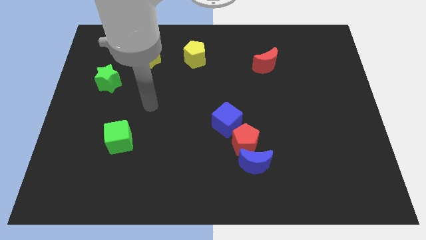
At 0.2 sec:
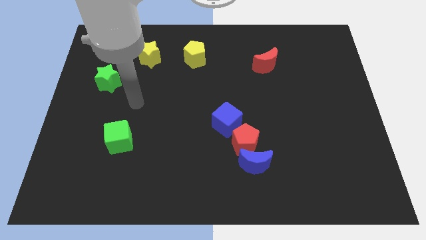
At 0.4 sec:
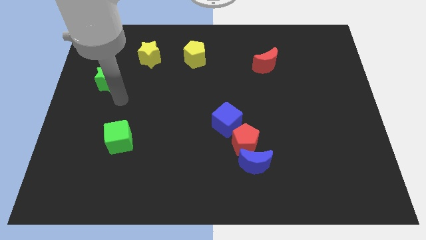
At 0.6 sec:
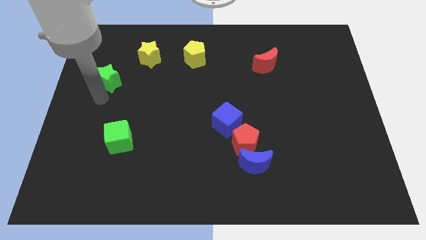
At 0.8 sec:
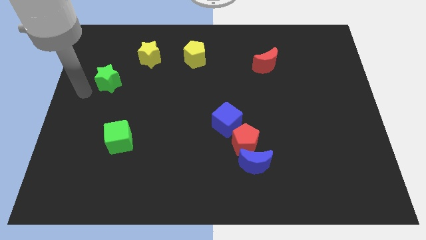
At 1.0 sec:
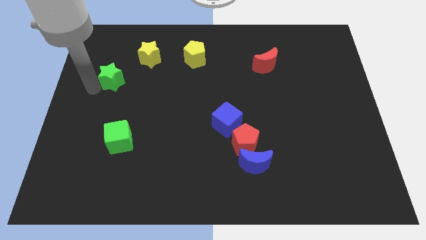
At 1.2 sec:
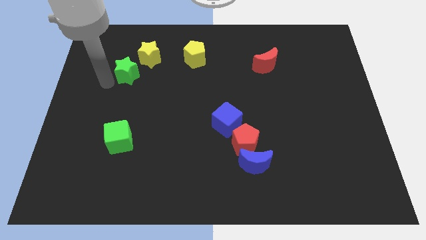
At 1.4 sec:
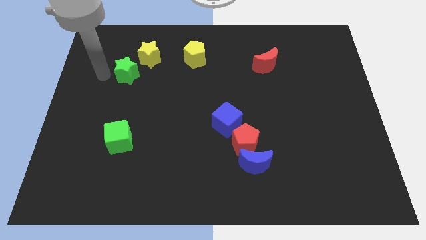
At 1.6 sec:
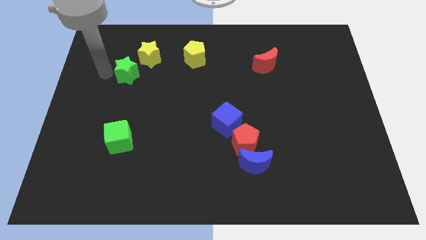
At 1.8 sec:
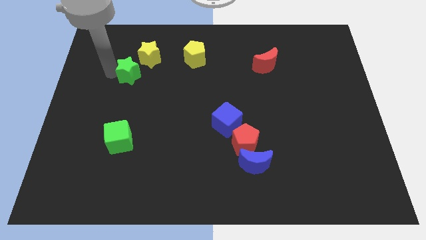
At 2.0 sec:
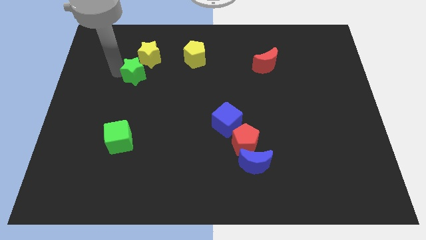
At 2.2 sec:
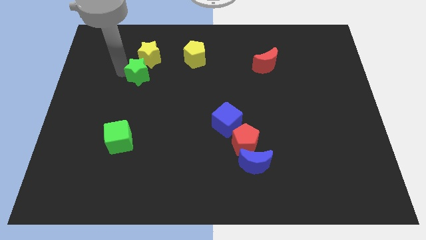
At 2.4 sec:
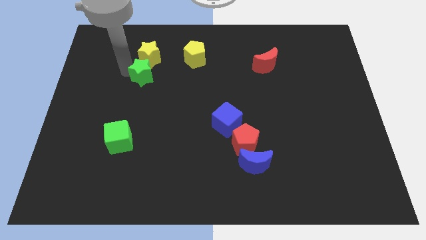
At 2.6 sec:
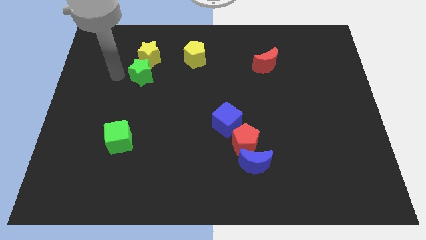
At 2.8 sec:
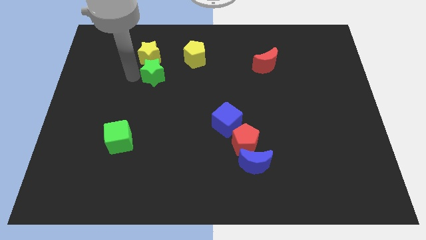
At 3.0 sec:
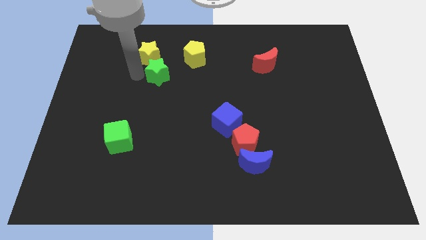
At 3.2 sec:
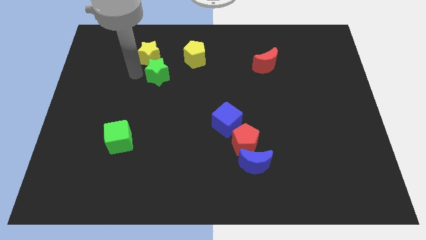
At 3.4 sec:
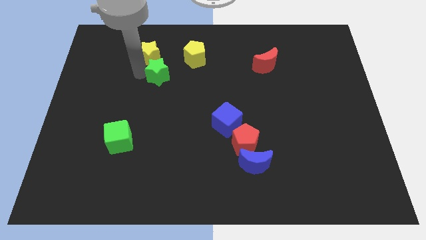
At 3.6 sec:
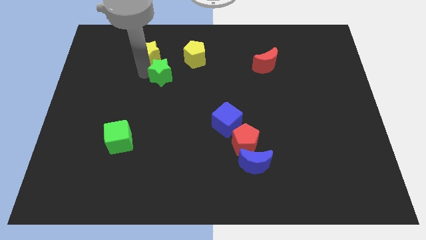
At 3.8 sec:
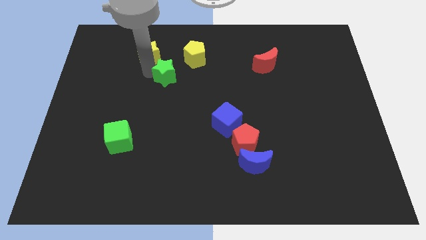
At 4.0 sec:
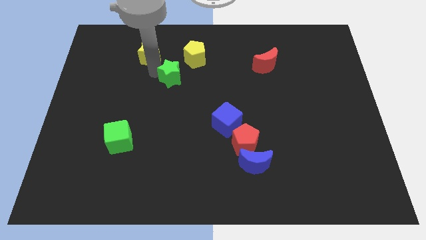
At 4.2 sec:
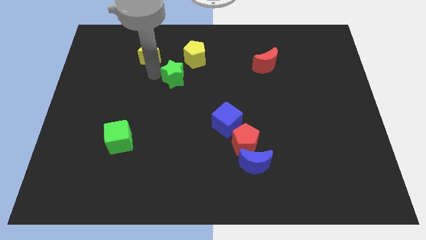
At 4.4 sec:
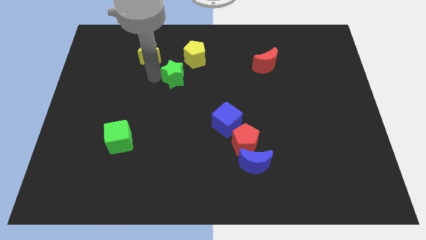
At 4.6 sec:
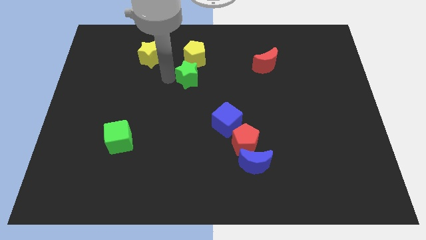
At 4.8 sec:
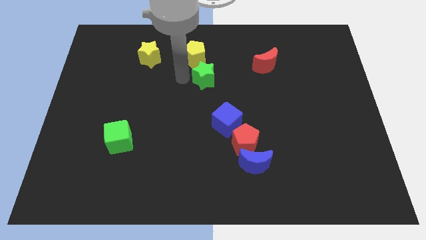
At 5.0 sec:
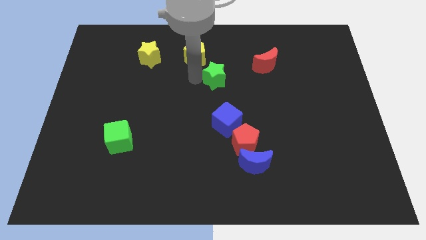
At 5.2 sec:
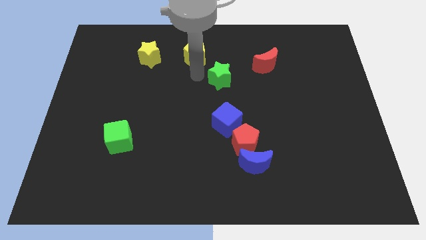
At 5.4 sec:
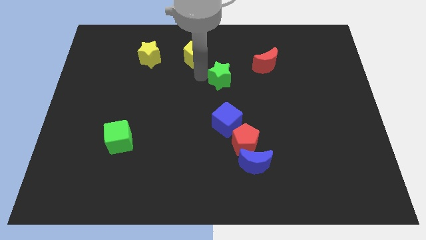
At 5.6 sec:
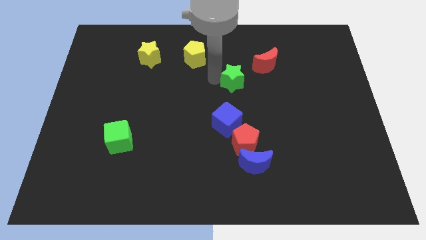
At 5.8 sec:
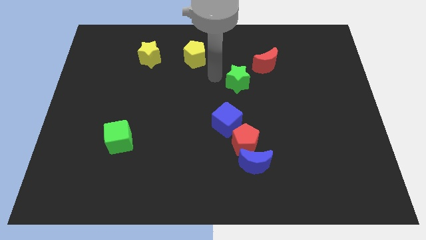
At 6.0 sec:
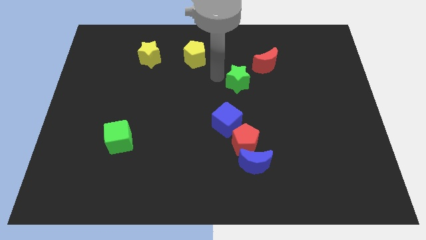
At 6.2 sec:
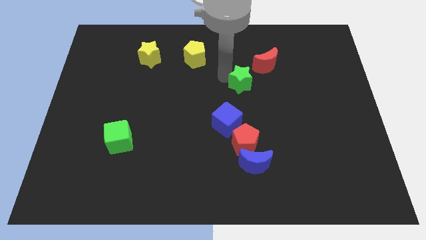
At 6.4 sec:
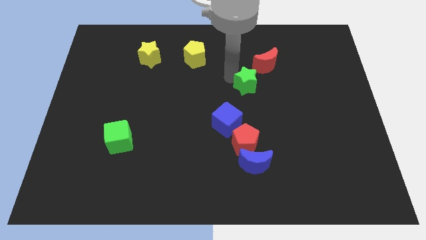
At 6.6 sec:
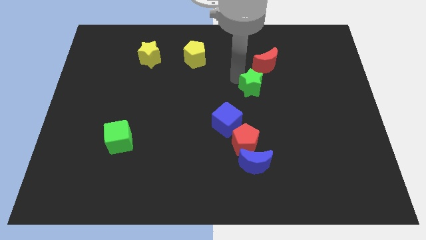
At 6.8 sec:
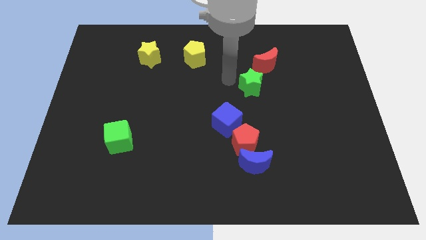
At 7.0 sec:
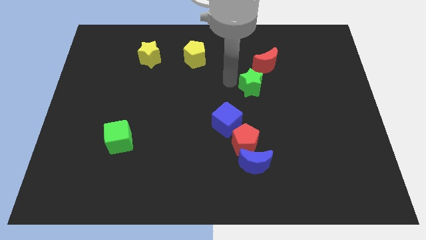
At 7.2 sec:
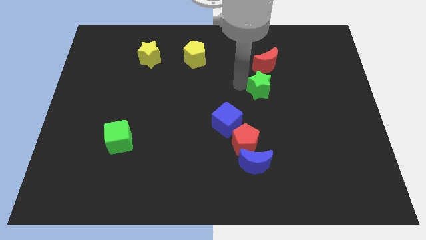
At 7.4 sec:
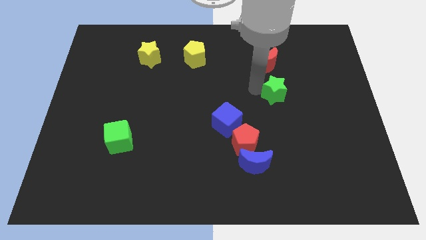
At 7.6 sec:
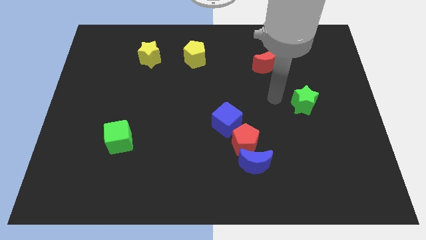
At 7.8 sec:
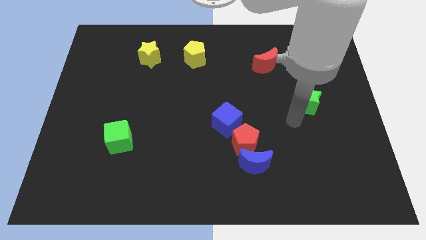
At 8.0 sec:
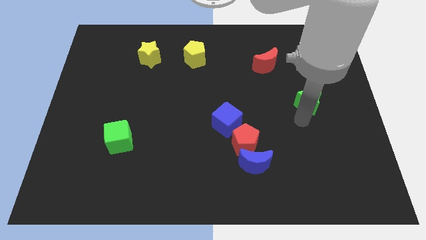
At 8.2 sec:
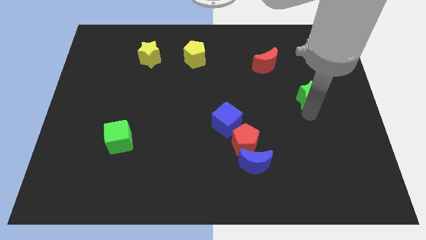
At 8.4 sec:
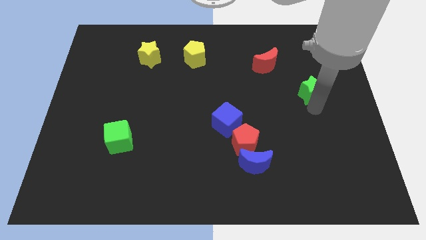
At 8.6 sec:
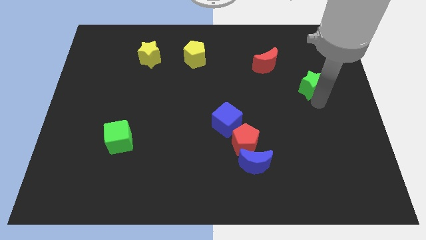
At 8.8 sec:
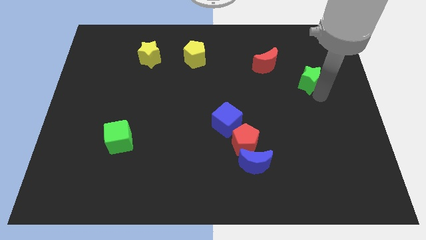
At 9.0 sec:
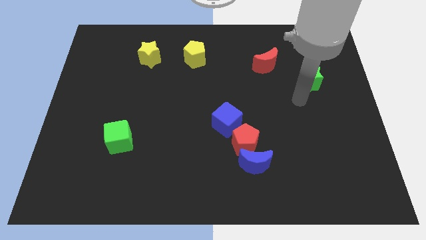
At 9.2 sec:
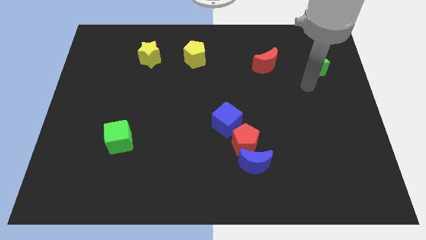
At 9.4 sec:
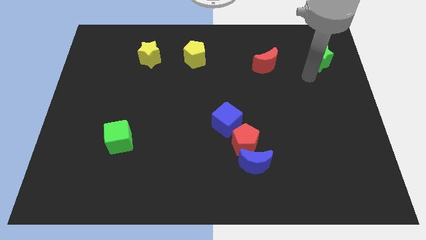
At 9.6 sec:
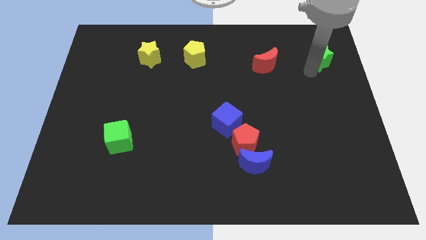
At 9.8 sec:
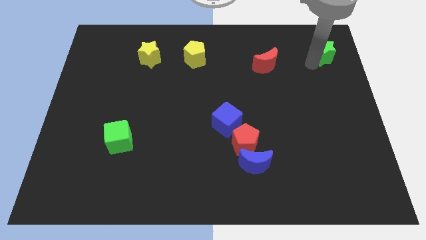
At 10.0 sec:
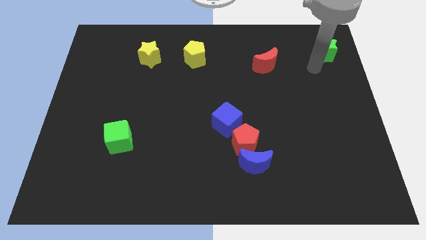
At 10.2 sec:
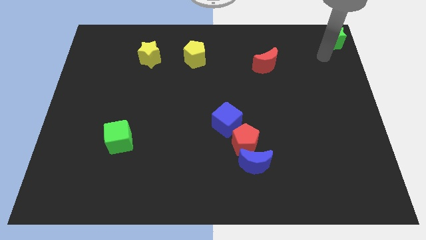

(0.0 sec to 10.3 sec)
push the green star to the top right of the board

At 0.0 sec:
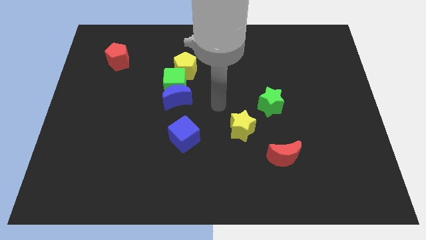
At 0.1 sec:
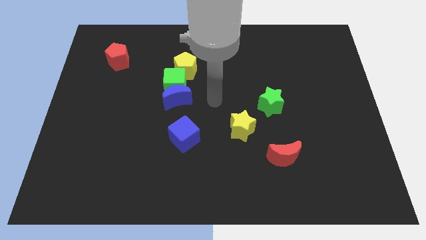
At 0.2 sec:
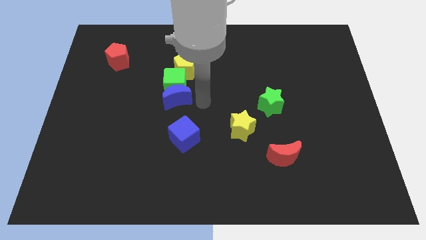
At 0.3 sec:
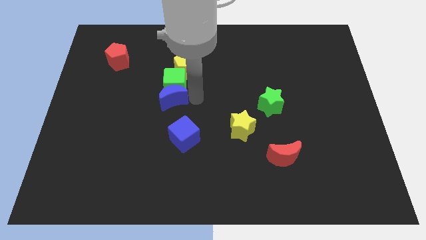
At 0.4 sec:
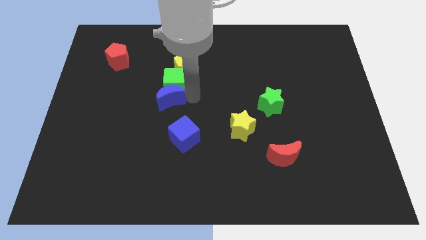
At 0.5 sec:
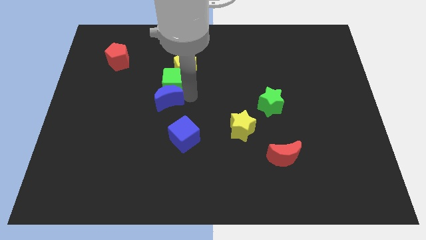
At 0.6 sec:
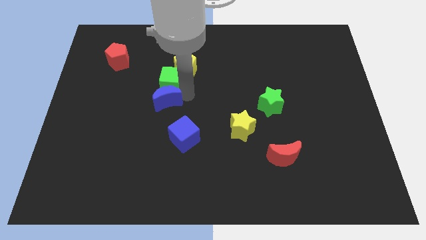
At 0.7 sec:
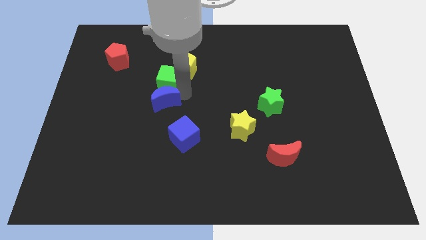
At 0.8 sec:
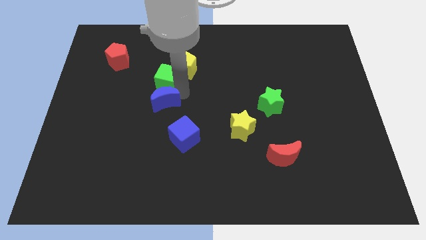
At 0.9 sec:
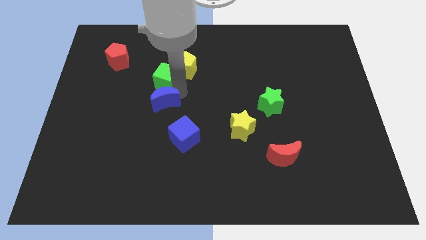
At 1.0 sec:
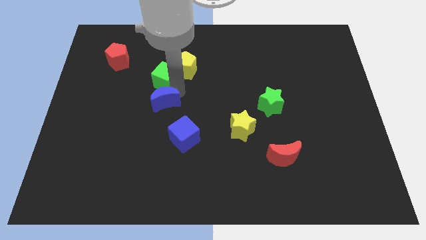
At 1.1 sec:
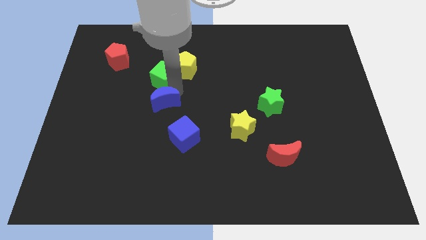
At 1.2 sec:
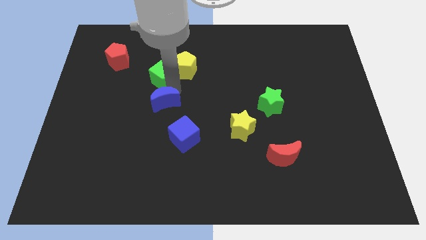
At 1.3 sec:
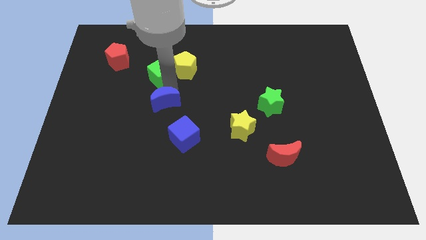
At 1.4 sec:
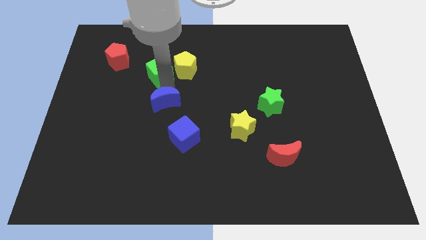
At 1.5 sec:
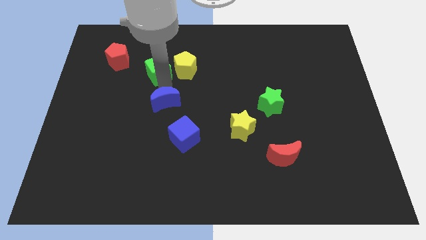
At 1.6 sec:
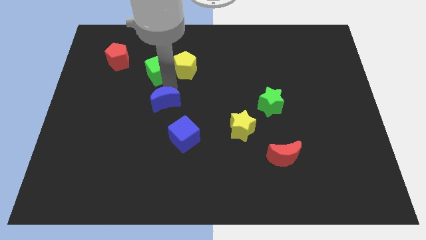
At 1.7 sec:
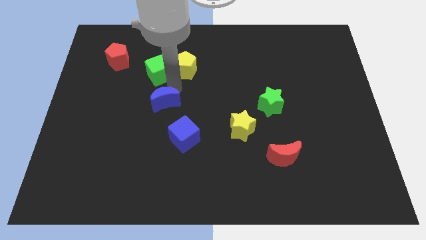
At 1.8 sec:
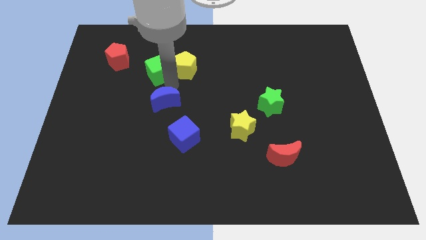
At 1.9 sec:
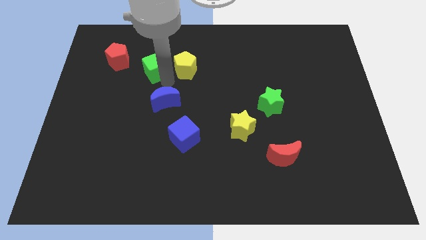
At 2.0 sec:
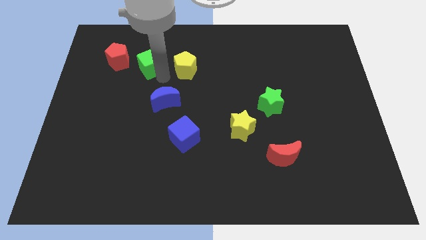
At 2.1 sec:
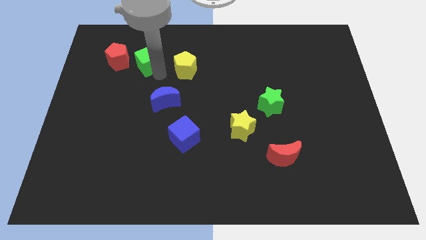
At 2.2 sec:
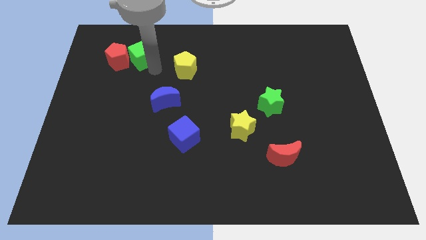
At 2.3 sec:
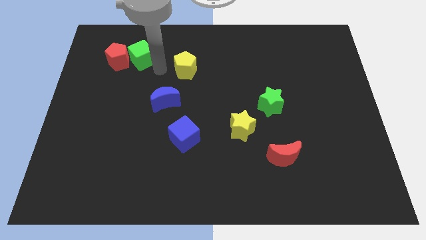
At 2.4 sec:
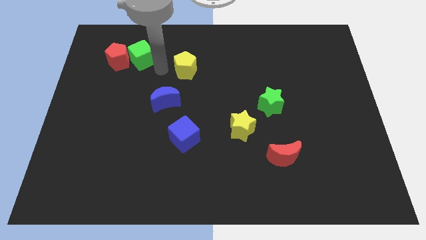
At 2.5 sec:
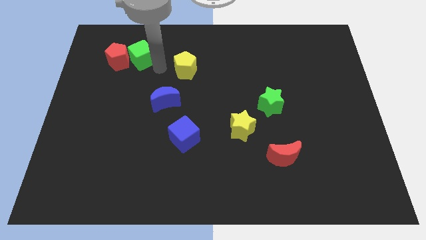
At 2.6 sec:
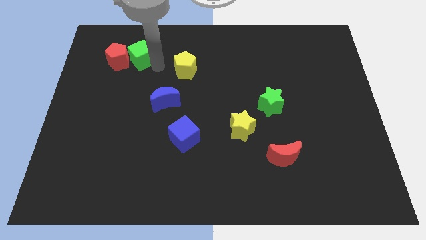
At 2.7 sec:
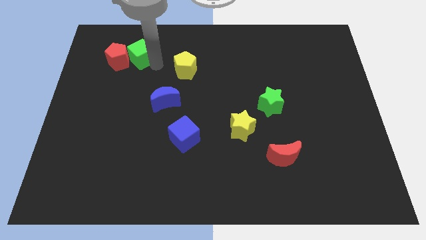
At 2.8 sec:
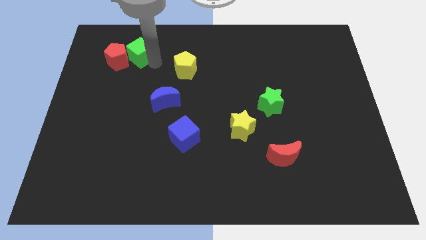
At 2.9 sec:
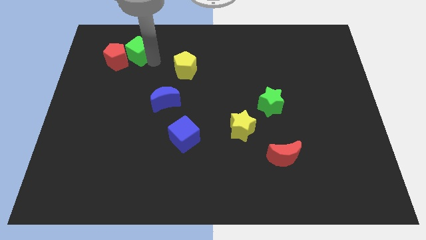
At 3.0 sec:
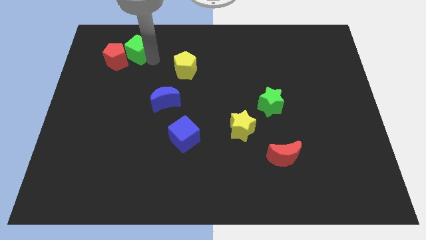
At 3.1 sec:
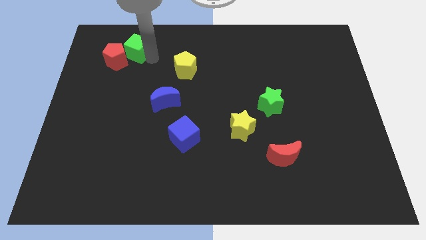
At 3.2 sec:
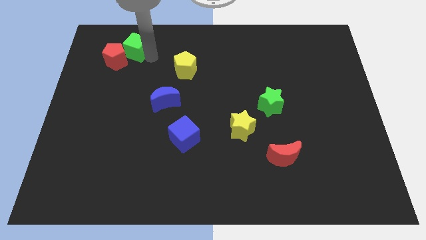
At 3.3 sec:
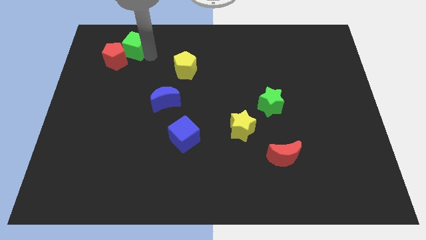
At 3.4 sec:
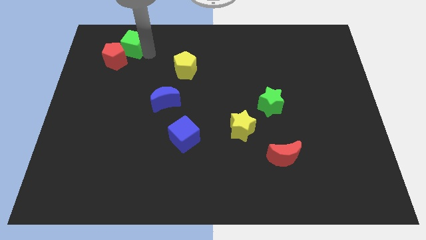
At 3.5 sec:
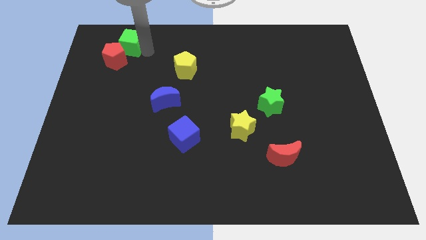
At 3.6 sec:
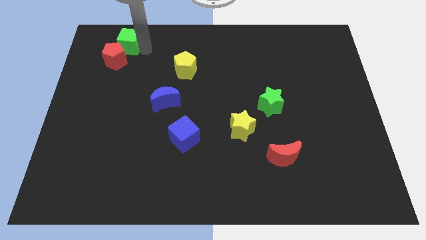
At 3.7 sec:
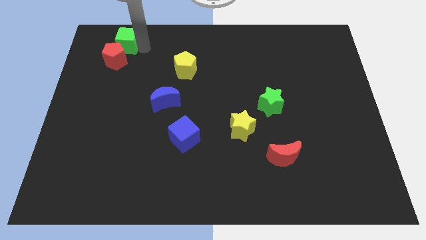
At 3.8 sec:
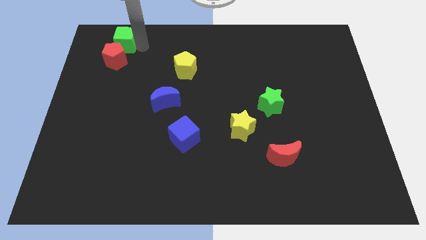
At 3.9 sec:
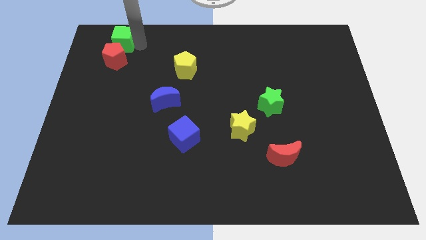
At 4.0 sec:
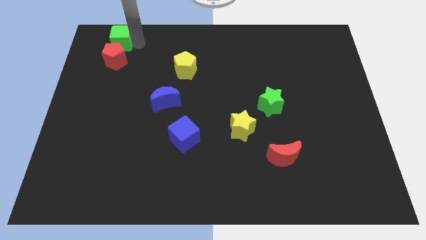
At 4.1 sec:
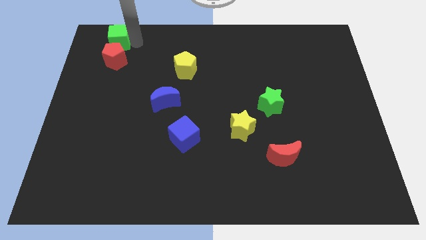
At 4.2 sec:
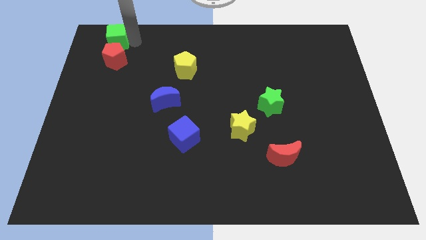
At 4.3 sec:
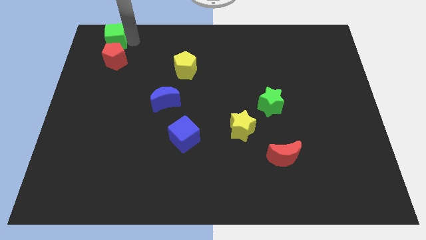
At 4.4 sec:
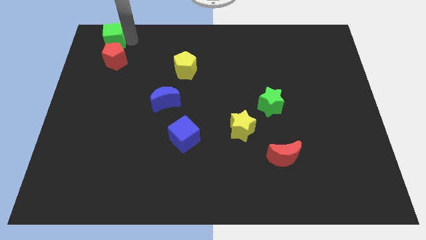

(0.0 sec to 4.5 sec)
push the green cube to the top left corner
